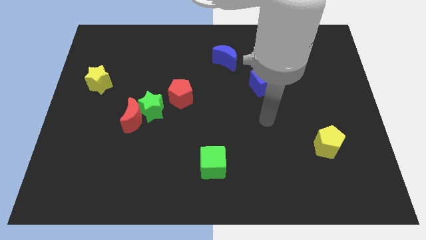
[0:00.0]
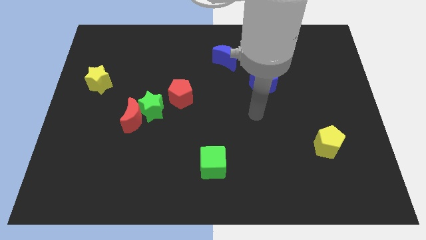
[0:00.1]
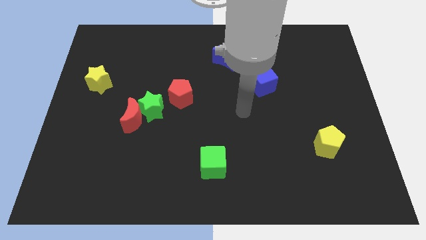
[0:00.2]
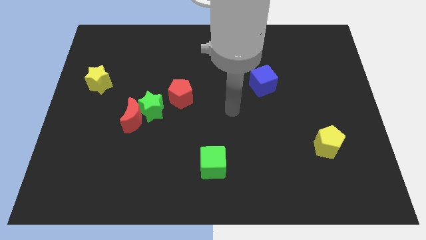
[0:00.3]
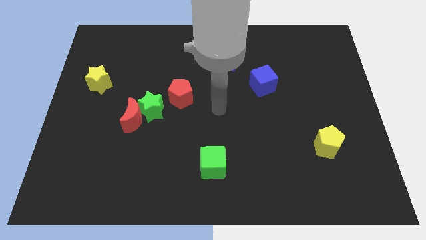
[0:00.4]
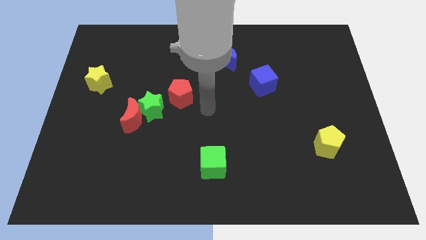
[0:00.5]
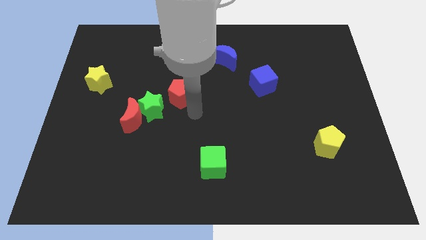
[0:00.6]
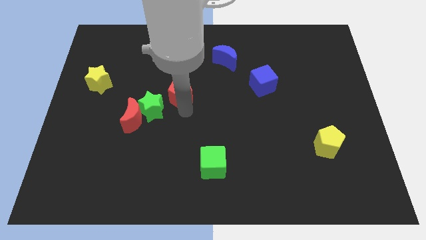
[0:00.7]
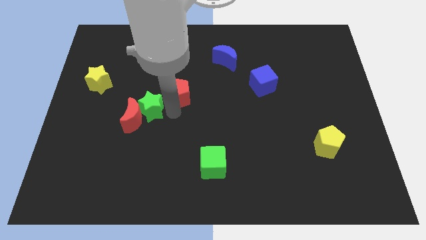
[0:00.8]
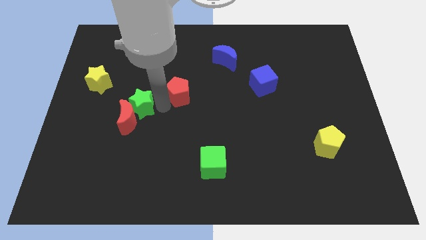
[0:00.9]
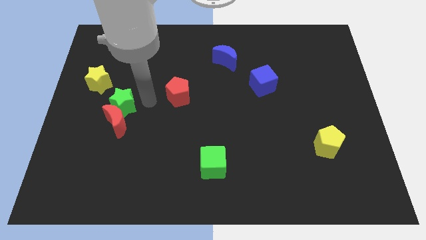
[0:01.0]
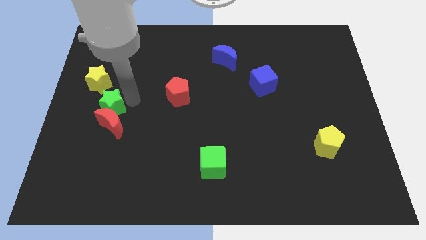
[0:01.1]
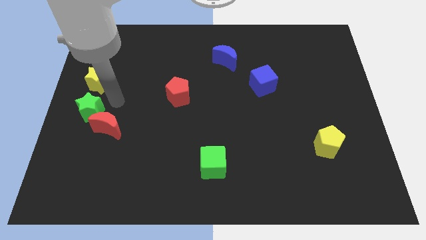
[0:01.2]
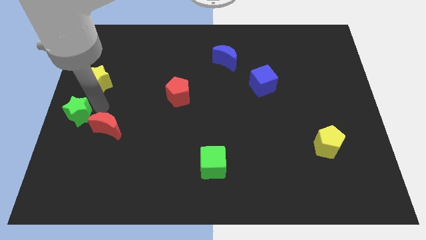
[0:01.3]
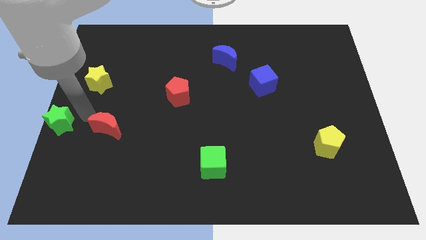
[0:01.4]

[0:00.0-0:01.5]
separate the red moon from the green star

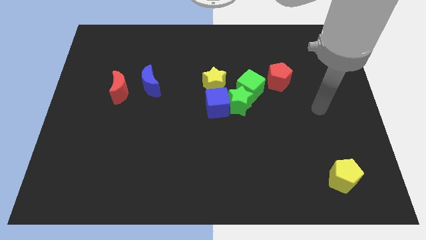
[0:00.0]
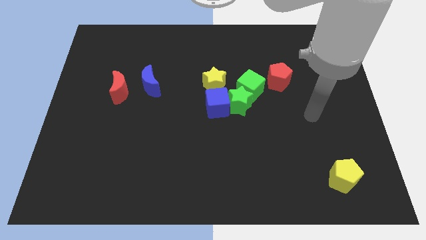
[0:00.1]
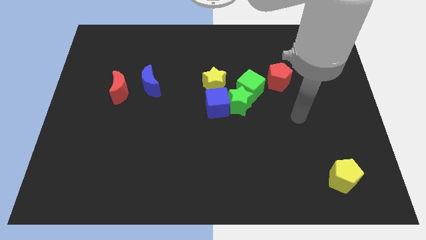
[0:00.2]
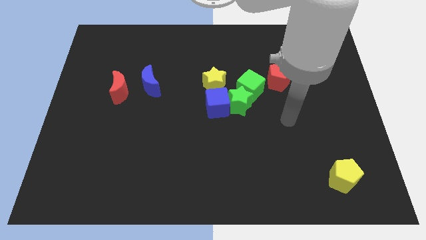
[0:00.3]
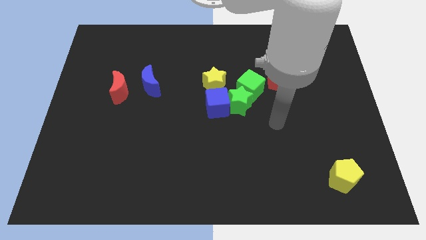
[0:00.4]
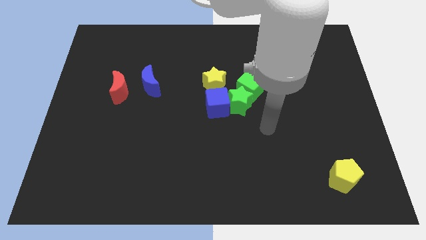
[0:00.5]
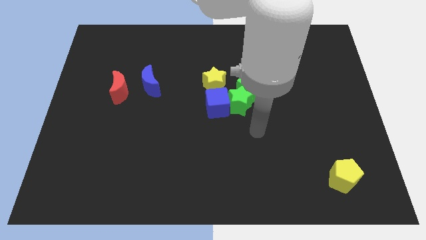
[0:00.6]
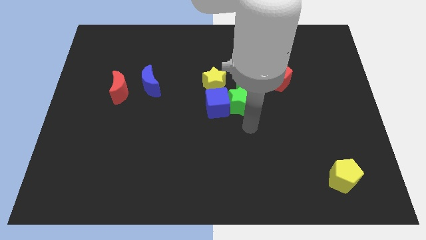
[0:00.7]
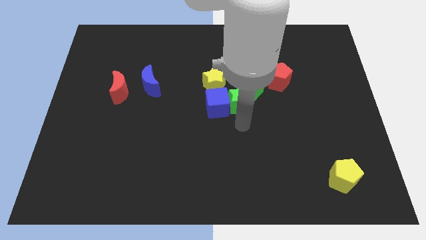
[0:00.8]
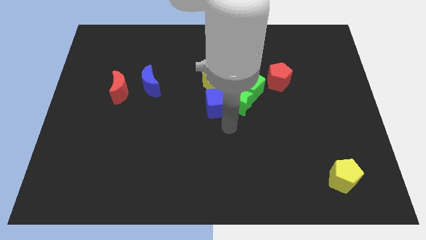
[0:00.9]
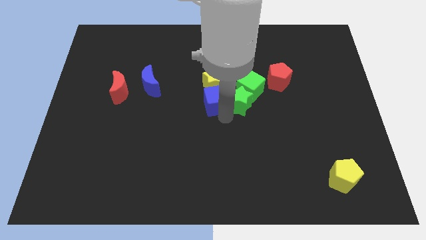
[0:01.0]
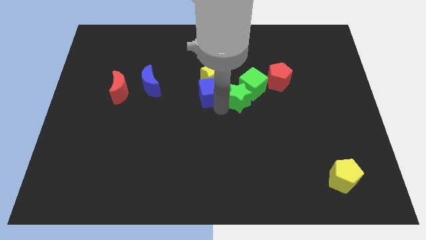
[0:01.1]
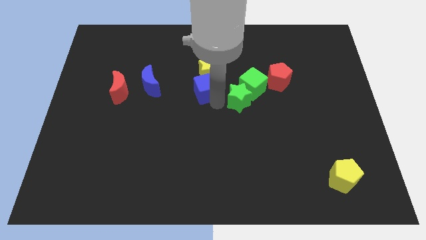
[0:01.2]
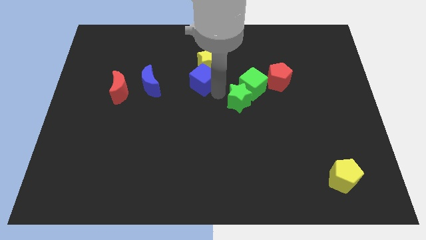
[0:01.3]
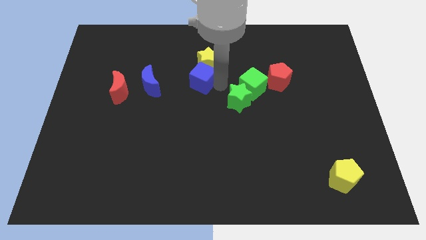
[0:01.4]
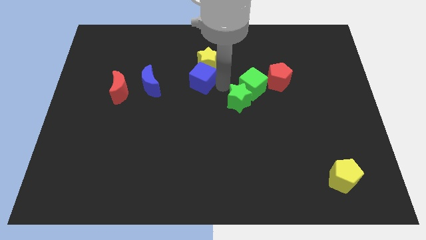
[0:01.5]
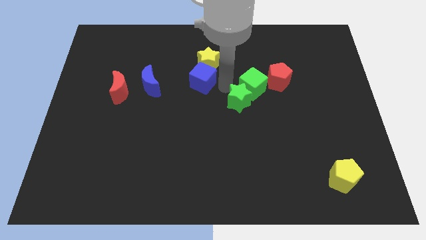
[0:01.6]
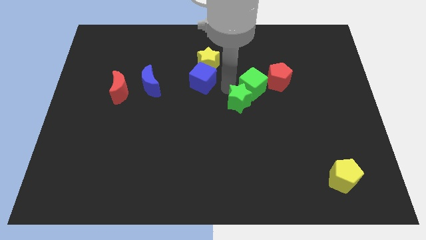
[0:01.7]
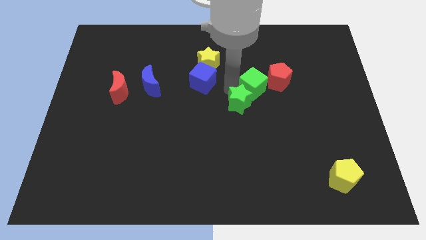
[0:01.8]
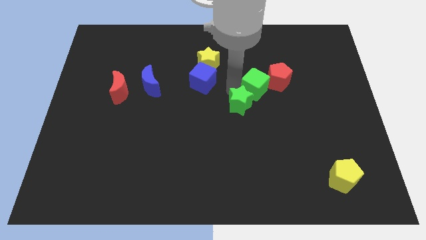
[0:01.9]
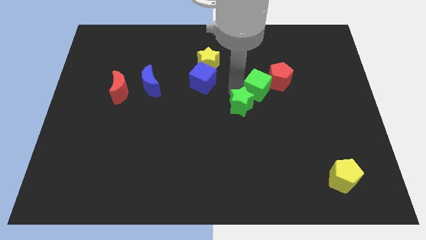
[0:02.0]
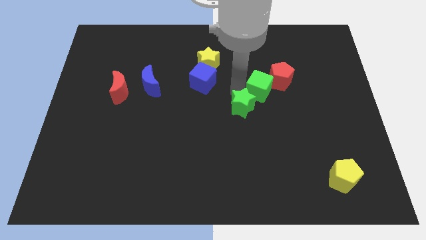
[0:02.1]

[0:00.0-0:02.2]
move the green star away from the group of blocks

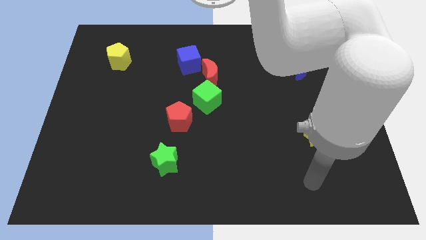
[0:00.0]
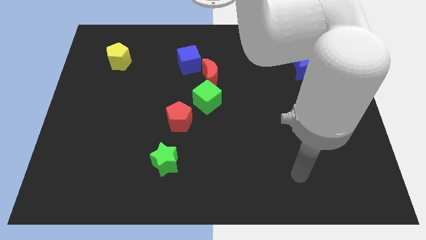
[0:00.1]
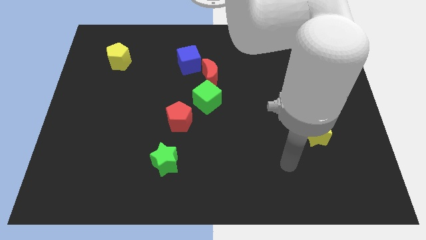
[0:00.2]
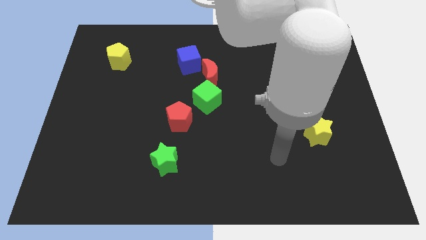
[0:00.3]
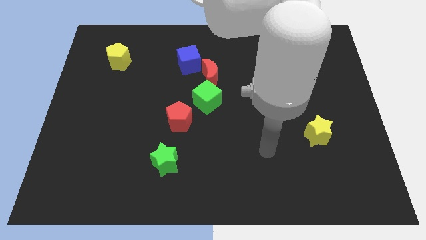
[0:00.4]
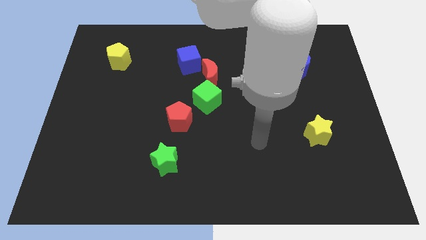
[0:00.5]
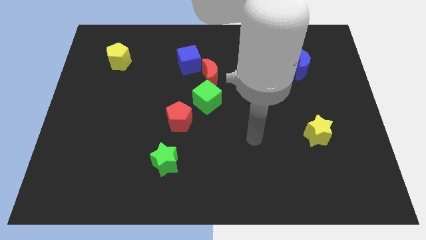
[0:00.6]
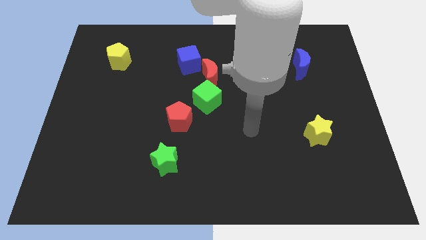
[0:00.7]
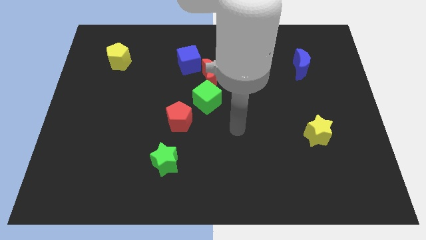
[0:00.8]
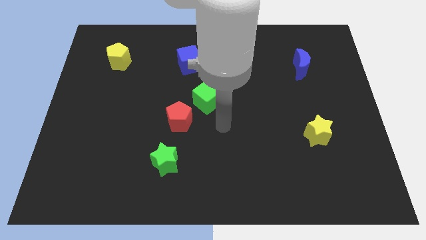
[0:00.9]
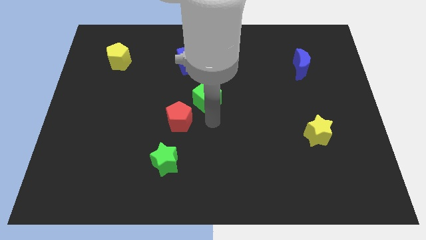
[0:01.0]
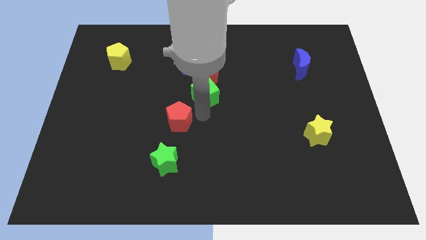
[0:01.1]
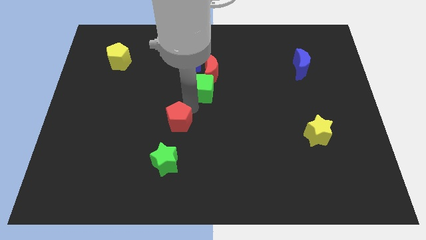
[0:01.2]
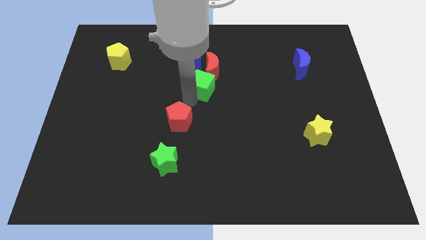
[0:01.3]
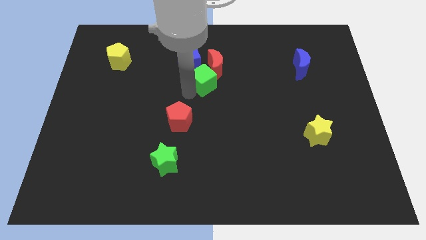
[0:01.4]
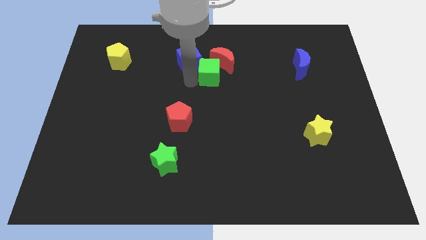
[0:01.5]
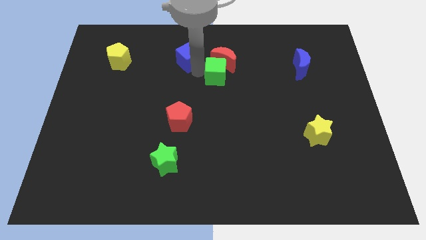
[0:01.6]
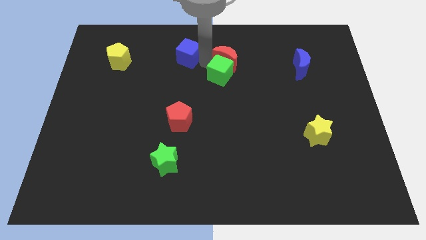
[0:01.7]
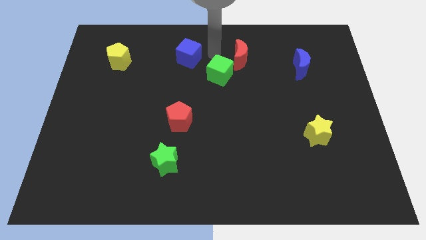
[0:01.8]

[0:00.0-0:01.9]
pull the red moon apart from the green cube and blue cube

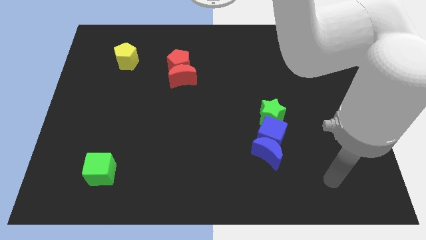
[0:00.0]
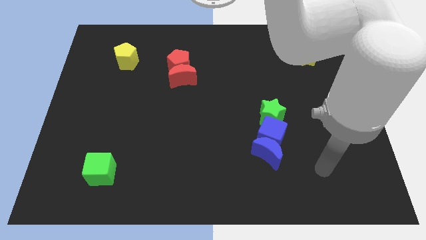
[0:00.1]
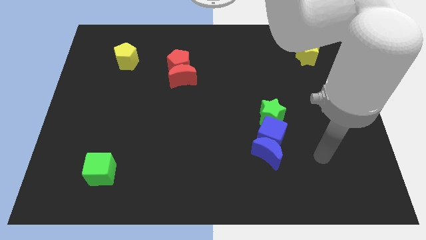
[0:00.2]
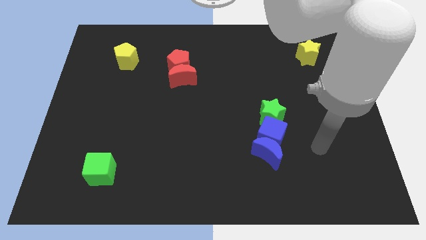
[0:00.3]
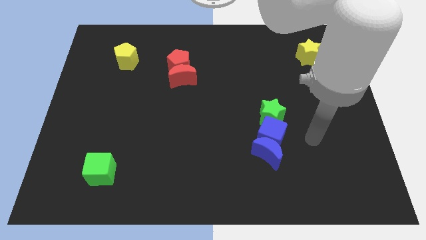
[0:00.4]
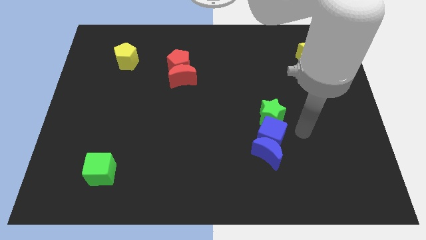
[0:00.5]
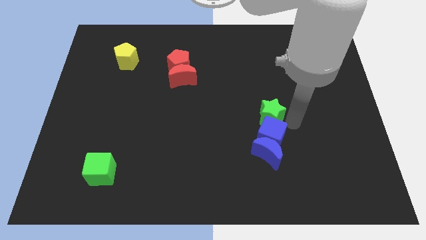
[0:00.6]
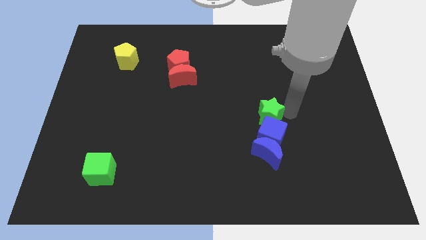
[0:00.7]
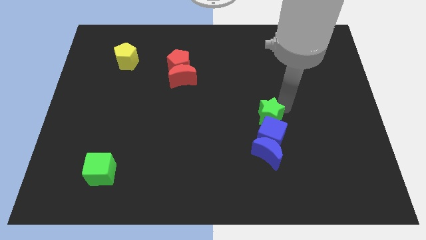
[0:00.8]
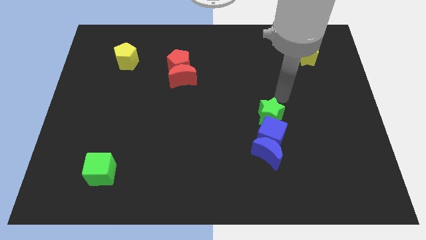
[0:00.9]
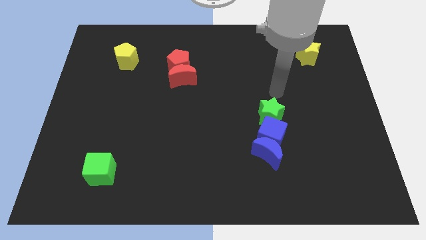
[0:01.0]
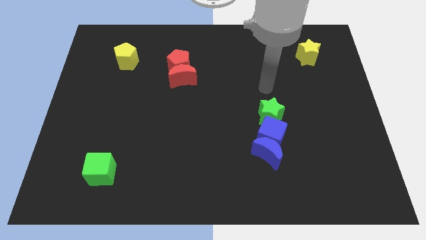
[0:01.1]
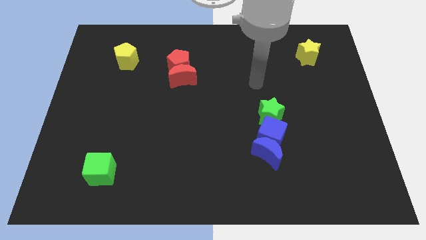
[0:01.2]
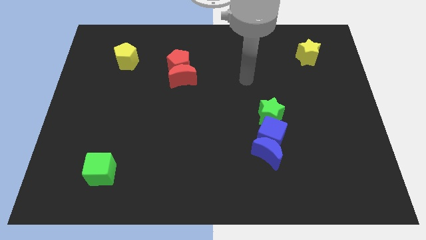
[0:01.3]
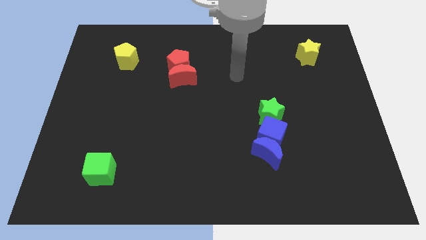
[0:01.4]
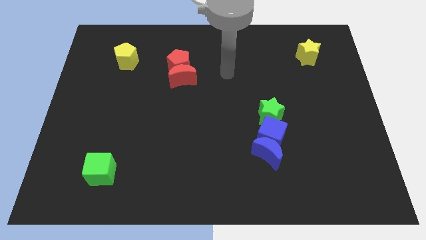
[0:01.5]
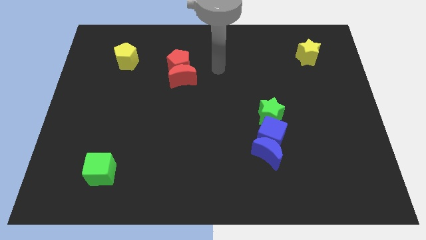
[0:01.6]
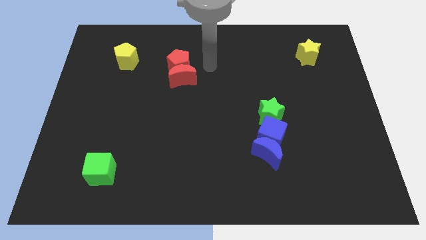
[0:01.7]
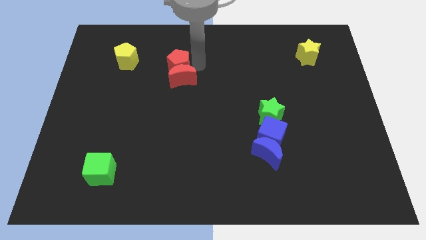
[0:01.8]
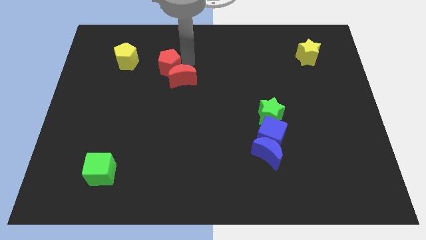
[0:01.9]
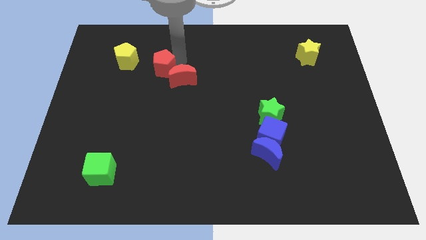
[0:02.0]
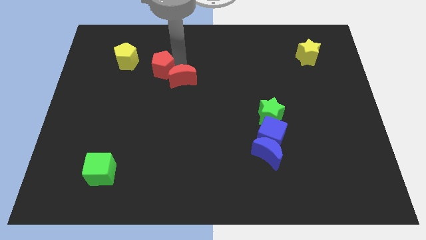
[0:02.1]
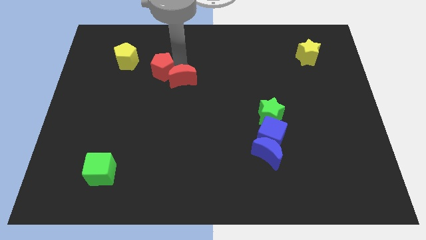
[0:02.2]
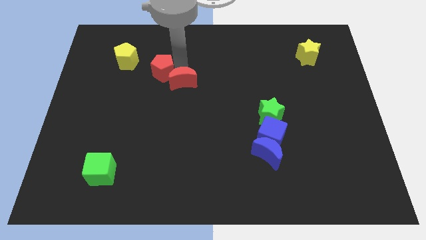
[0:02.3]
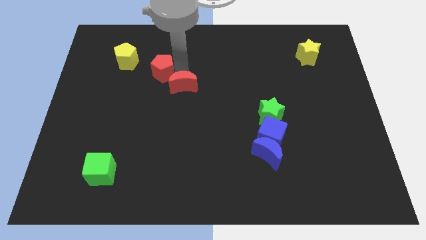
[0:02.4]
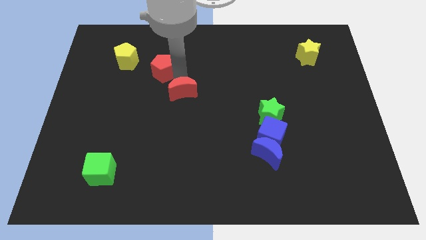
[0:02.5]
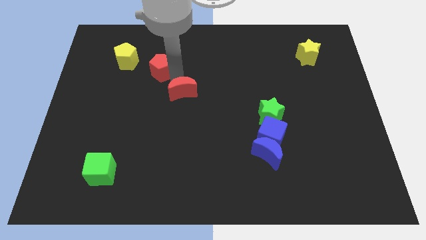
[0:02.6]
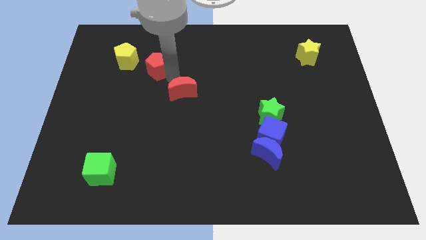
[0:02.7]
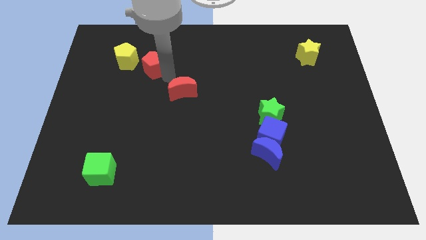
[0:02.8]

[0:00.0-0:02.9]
separate the red moon from the red pentagon

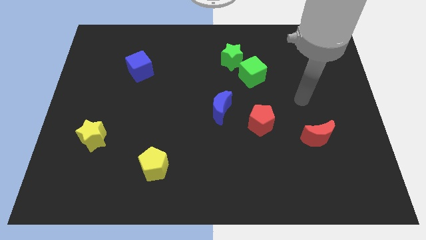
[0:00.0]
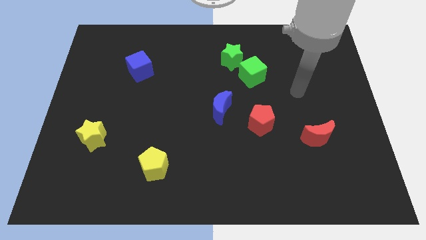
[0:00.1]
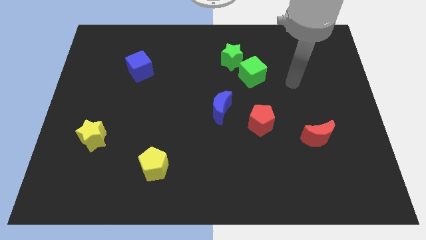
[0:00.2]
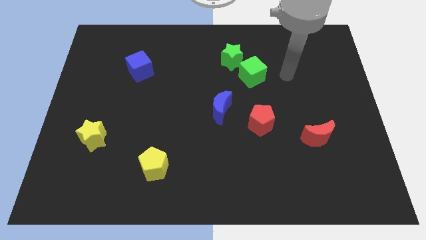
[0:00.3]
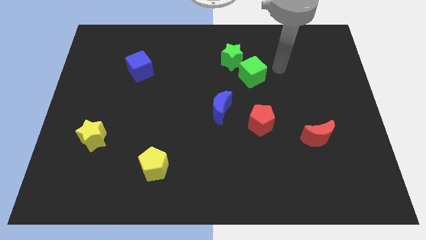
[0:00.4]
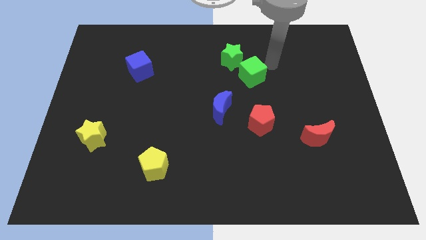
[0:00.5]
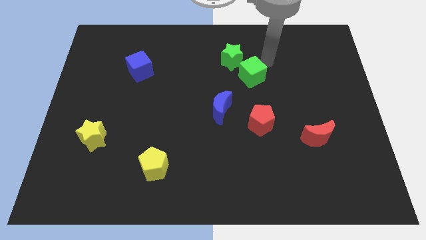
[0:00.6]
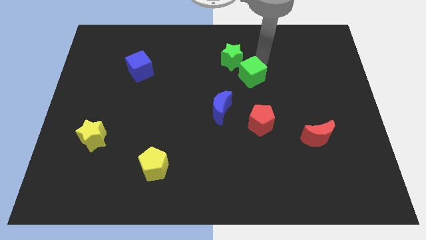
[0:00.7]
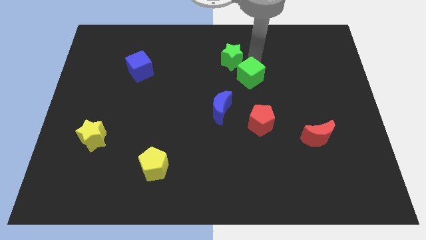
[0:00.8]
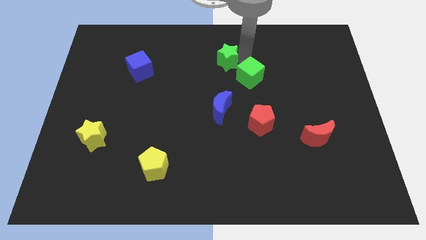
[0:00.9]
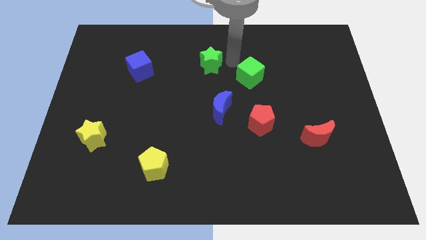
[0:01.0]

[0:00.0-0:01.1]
pull the green cube apart from the green star
